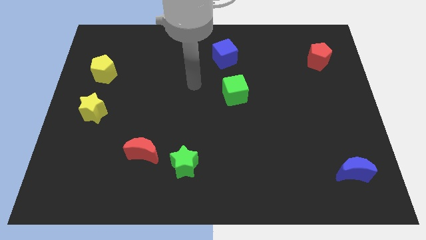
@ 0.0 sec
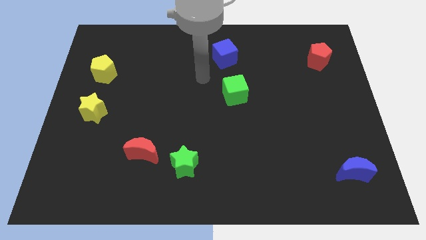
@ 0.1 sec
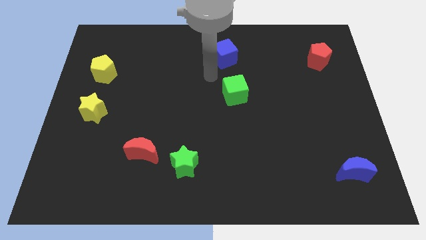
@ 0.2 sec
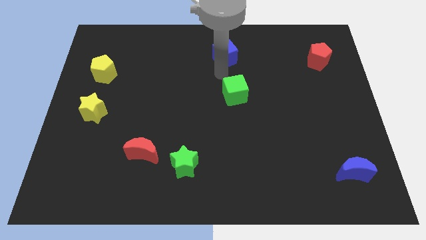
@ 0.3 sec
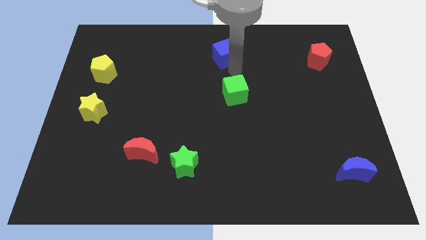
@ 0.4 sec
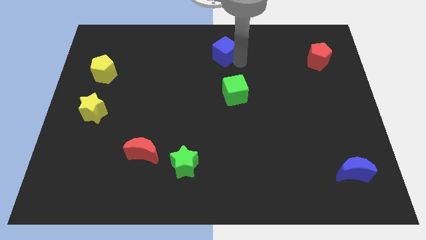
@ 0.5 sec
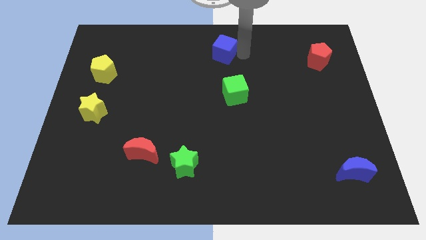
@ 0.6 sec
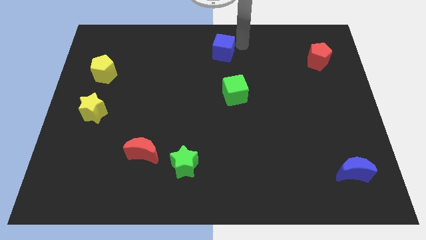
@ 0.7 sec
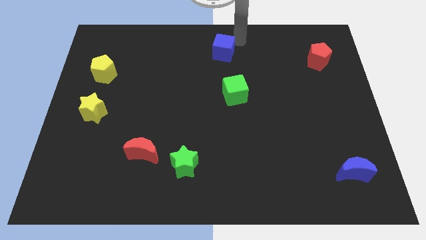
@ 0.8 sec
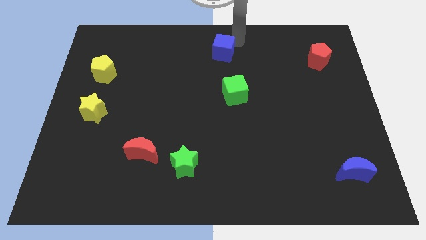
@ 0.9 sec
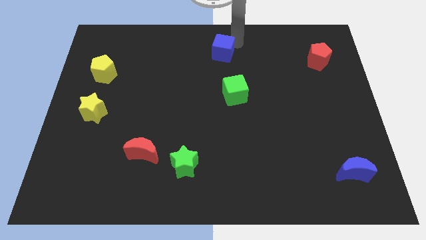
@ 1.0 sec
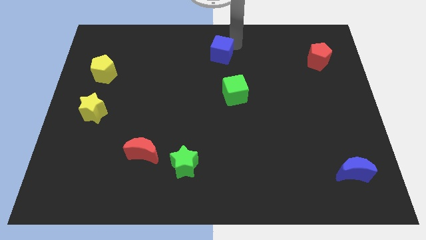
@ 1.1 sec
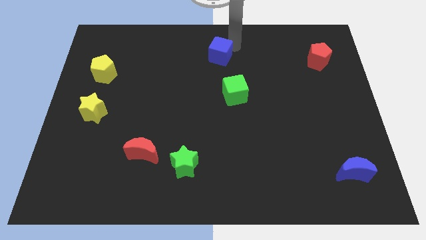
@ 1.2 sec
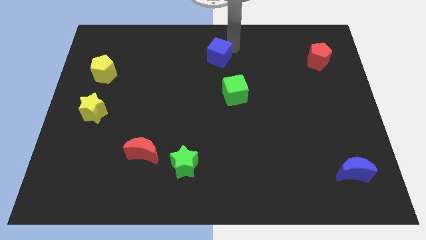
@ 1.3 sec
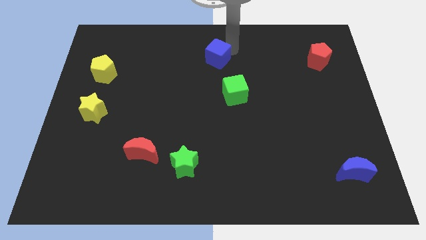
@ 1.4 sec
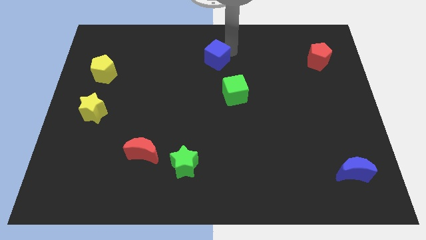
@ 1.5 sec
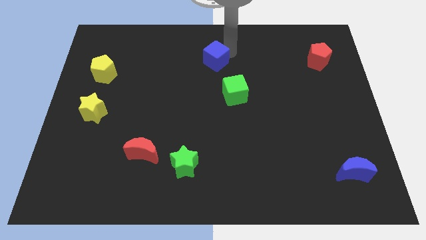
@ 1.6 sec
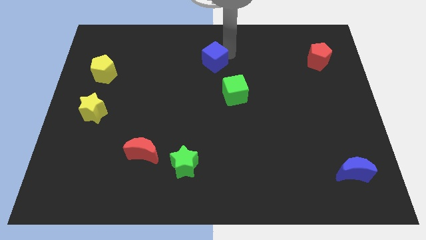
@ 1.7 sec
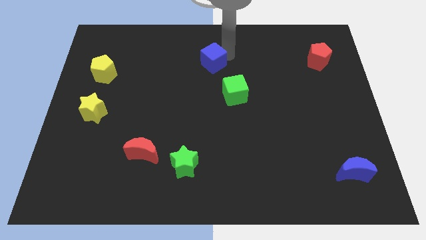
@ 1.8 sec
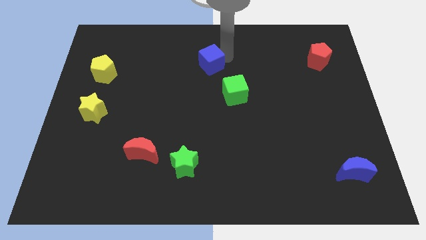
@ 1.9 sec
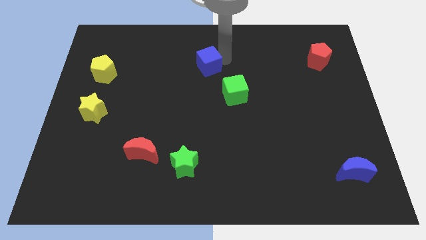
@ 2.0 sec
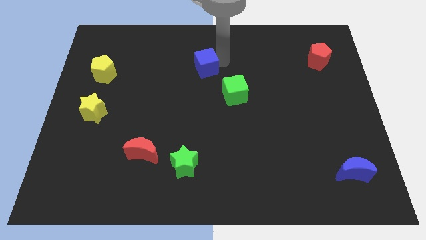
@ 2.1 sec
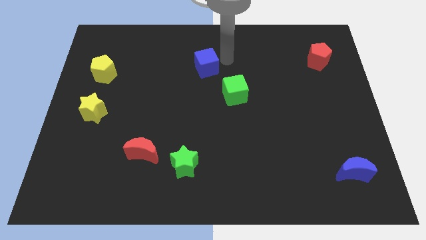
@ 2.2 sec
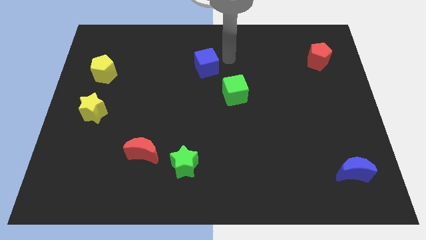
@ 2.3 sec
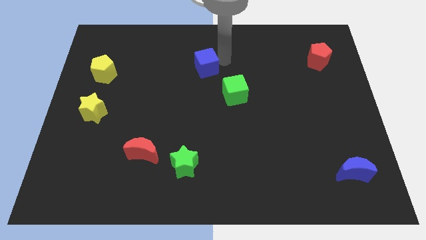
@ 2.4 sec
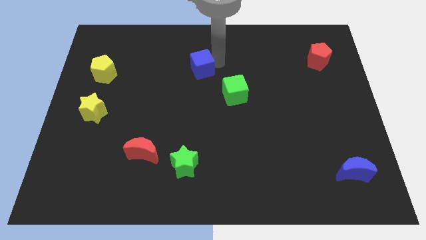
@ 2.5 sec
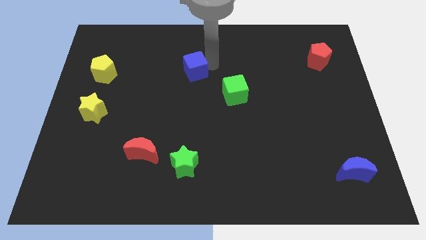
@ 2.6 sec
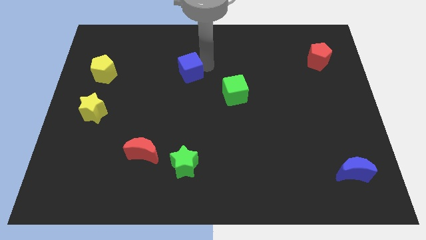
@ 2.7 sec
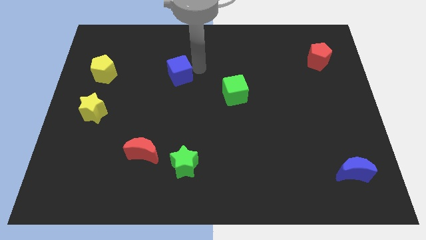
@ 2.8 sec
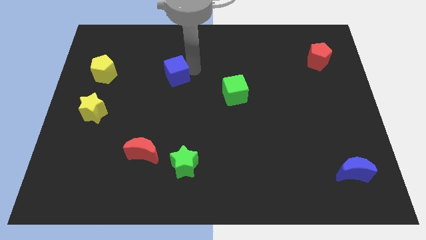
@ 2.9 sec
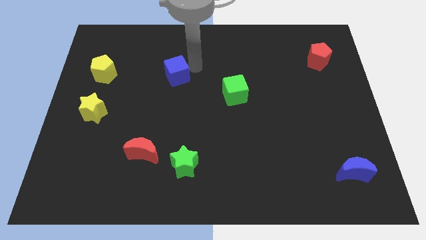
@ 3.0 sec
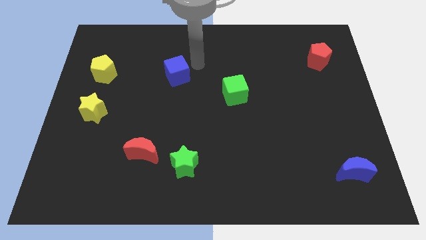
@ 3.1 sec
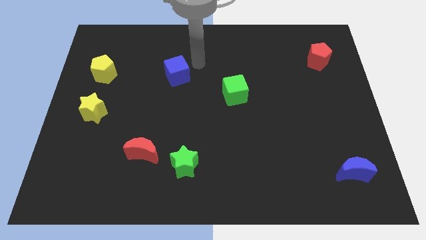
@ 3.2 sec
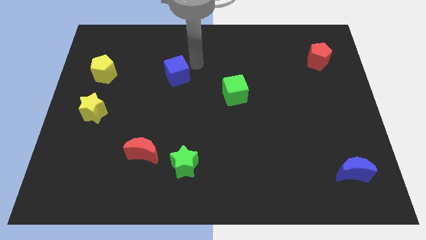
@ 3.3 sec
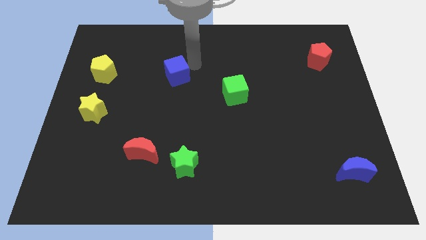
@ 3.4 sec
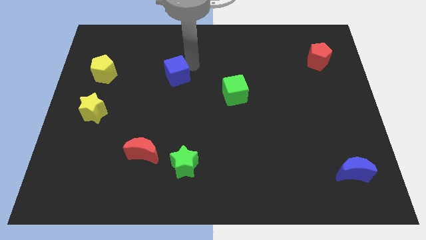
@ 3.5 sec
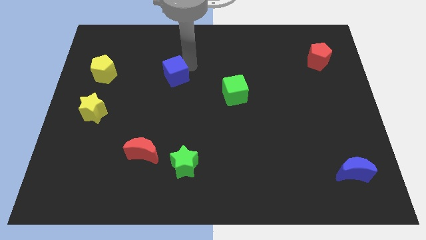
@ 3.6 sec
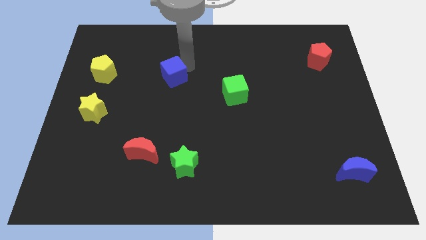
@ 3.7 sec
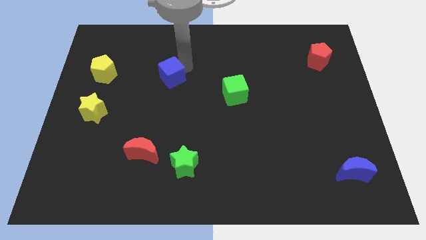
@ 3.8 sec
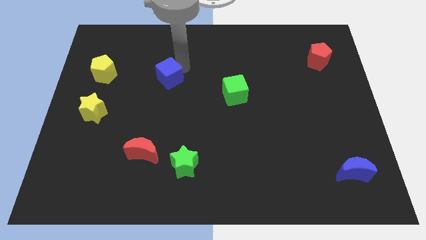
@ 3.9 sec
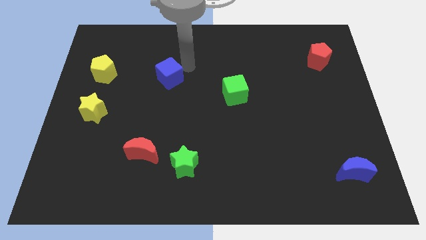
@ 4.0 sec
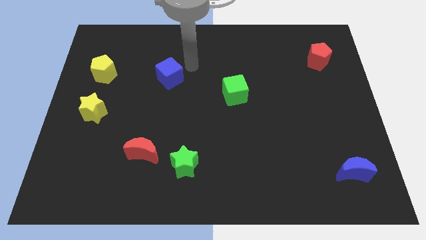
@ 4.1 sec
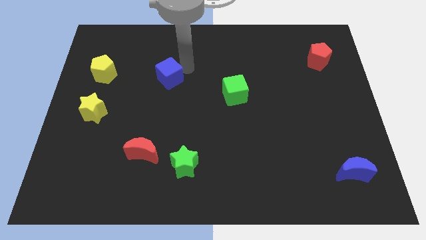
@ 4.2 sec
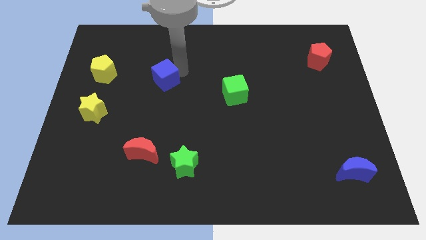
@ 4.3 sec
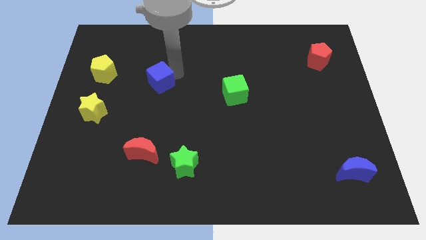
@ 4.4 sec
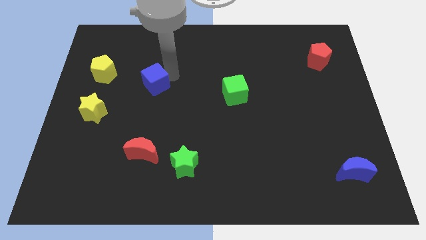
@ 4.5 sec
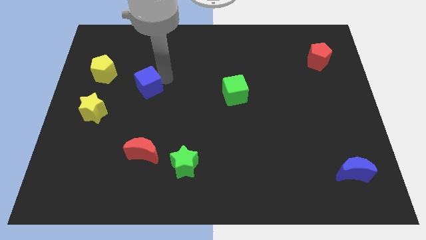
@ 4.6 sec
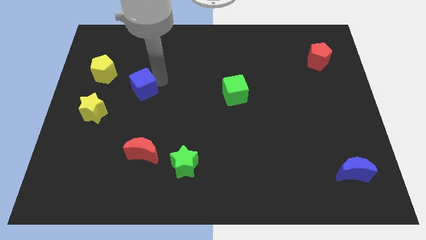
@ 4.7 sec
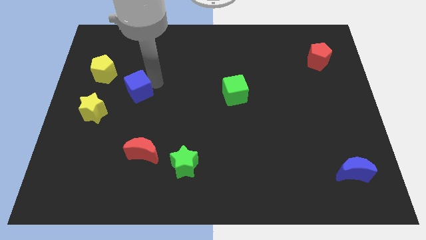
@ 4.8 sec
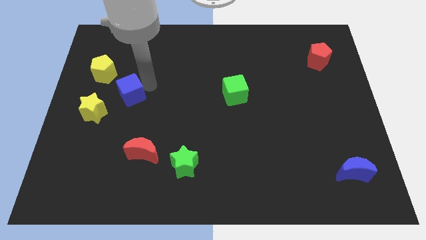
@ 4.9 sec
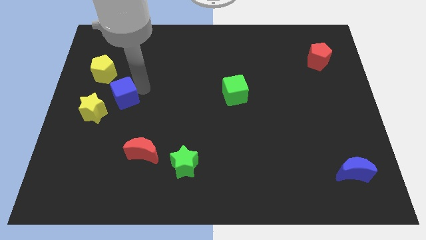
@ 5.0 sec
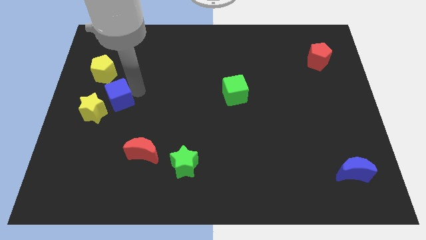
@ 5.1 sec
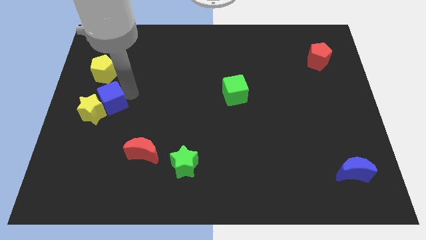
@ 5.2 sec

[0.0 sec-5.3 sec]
slide the blue cube towards the yellow star

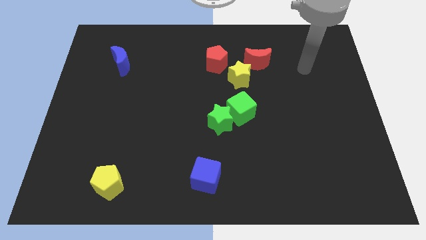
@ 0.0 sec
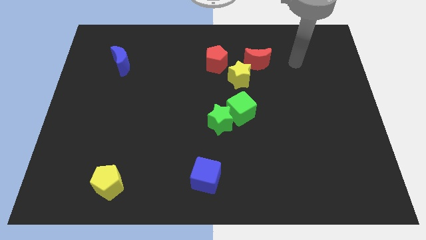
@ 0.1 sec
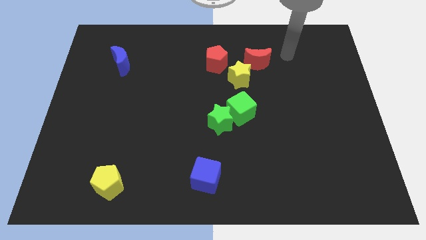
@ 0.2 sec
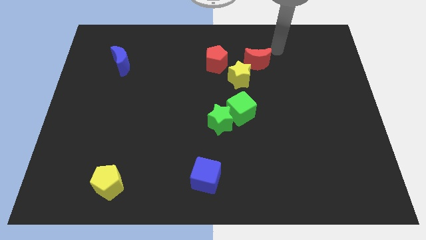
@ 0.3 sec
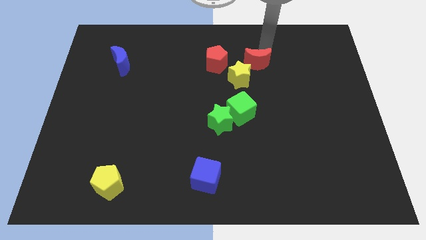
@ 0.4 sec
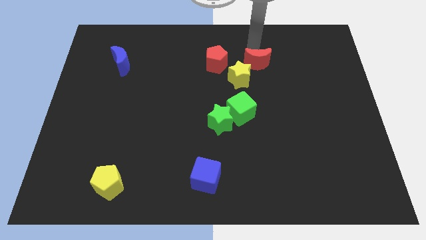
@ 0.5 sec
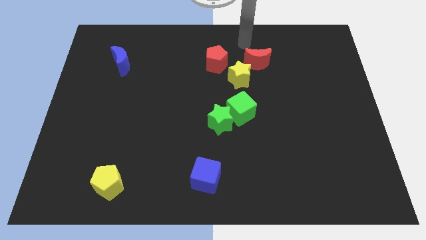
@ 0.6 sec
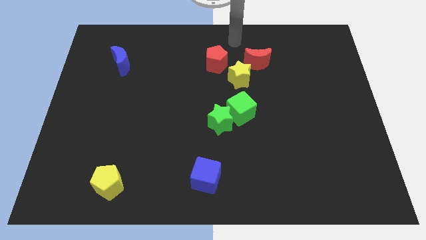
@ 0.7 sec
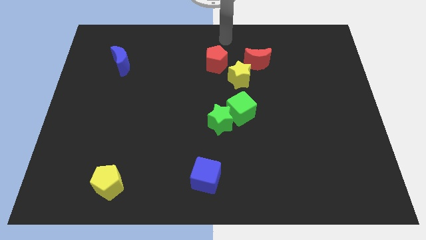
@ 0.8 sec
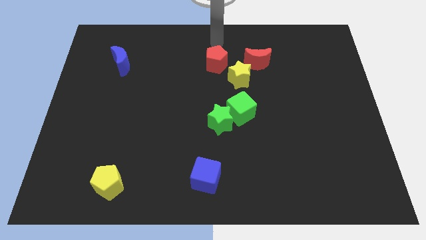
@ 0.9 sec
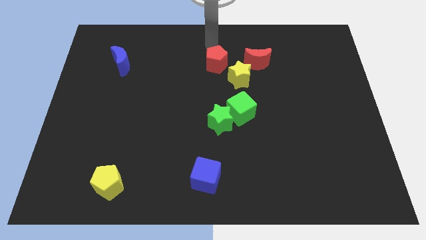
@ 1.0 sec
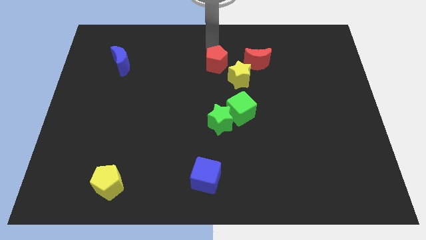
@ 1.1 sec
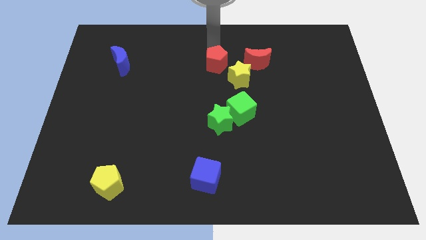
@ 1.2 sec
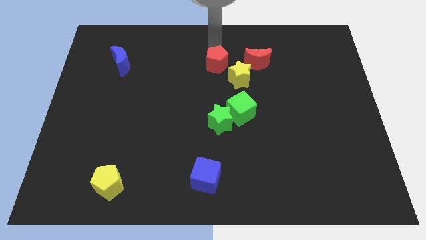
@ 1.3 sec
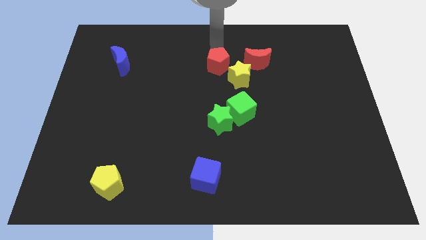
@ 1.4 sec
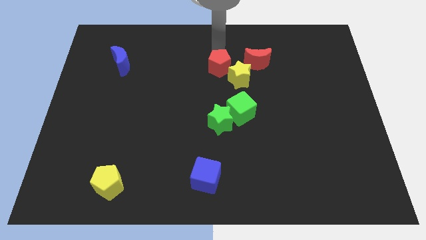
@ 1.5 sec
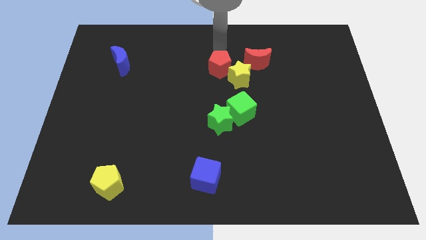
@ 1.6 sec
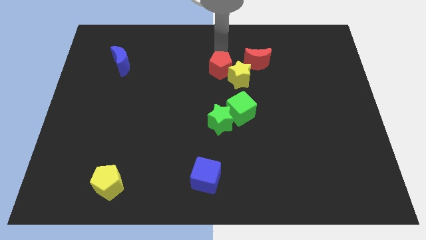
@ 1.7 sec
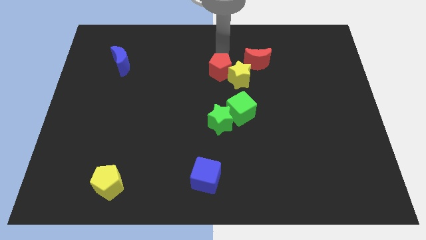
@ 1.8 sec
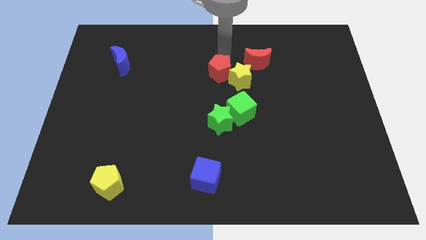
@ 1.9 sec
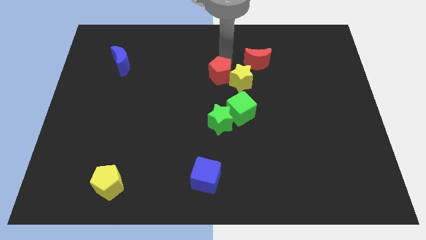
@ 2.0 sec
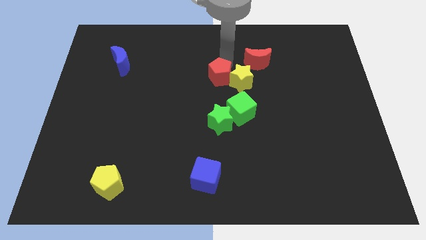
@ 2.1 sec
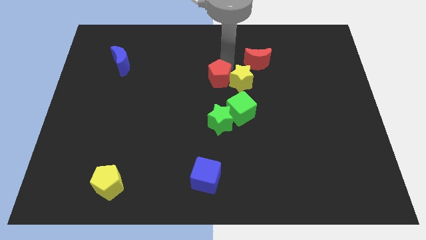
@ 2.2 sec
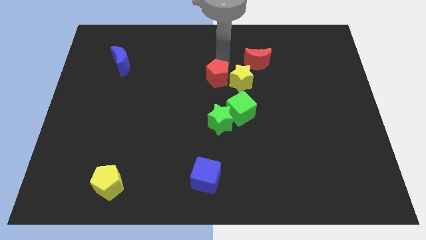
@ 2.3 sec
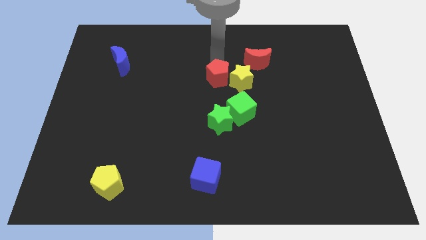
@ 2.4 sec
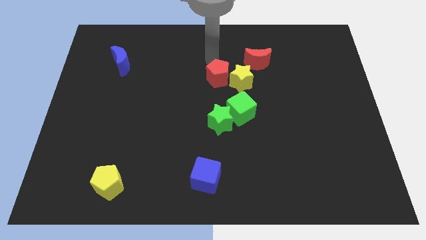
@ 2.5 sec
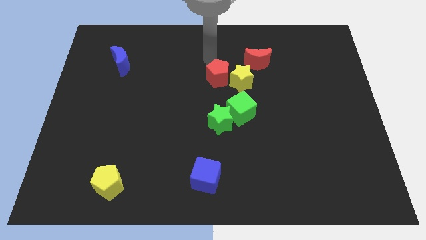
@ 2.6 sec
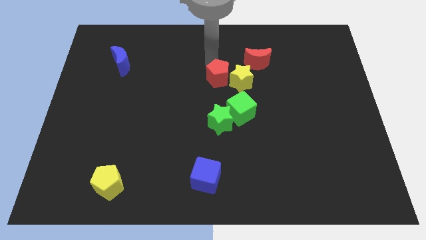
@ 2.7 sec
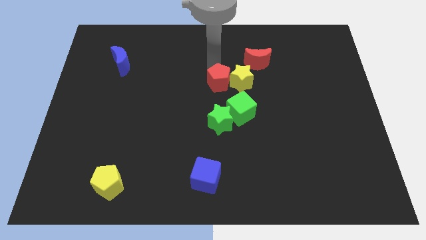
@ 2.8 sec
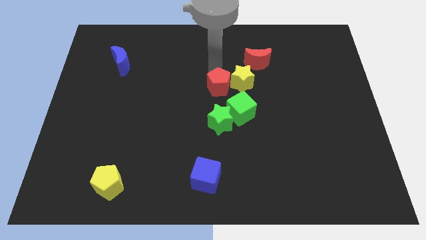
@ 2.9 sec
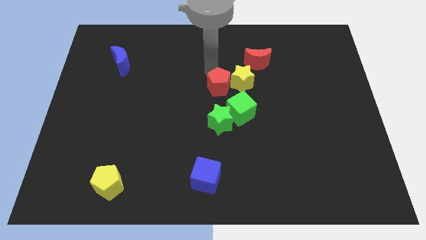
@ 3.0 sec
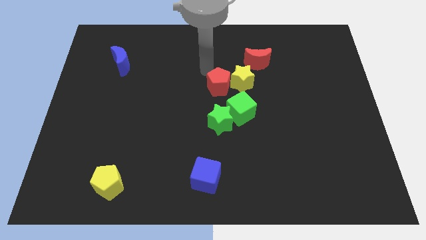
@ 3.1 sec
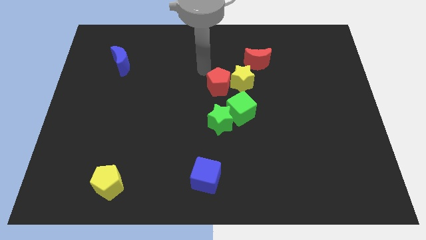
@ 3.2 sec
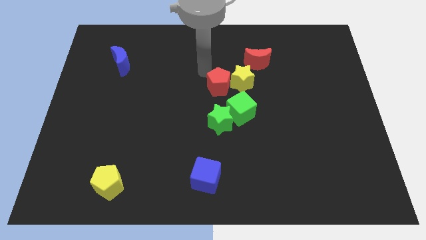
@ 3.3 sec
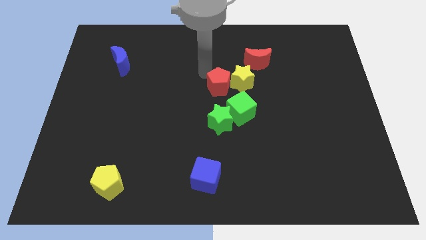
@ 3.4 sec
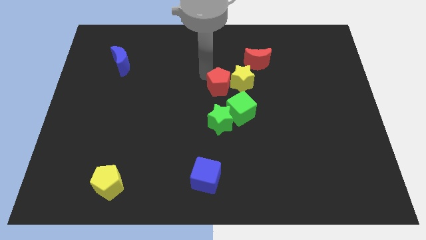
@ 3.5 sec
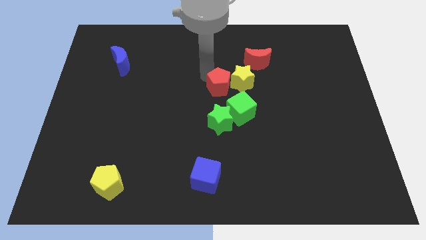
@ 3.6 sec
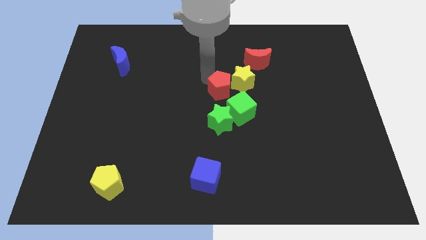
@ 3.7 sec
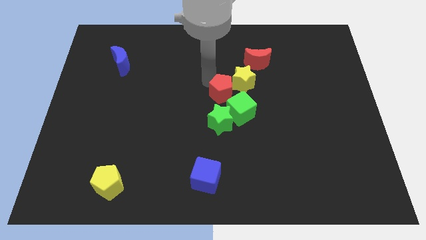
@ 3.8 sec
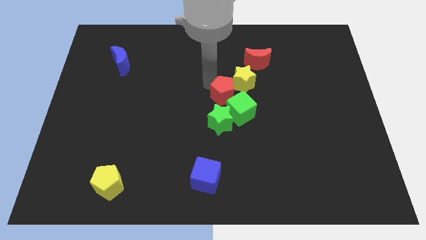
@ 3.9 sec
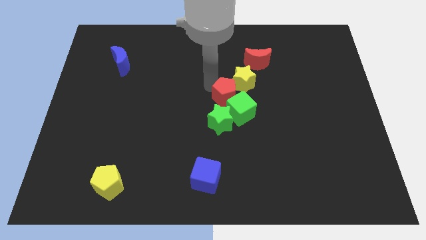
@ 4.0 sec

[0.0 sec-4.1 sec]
push the red pentagon towards the green cube
